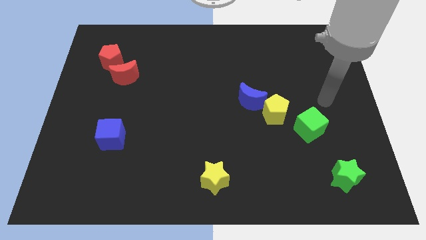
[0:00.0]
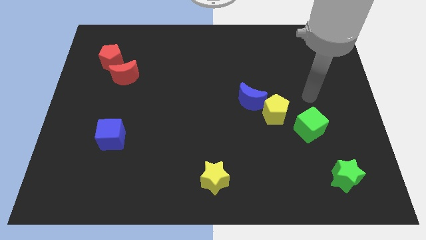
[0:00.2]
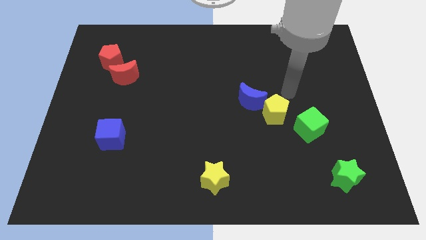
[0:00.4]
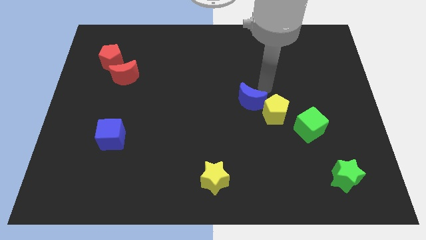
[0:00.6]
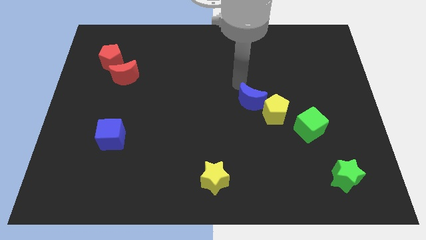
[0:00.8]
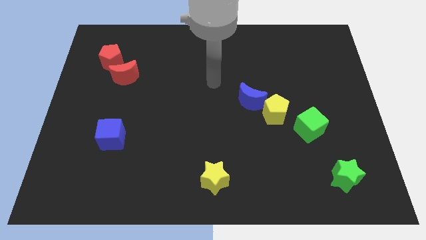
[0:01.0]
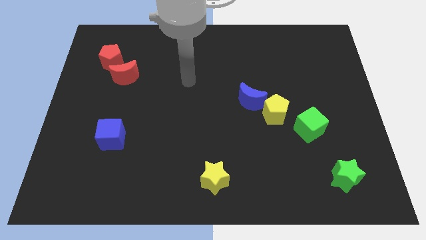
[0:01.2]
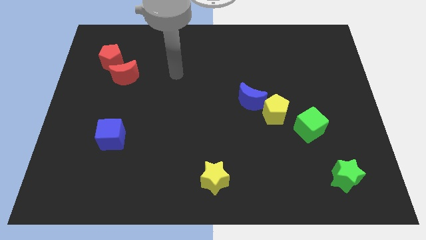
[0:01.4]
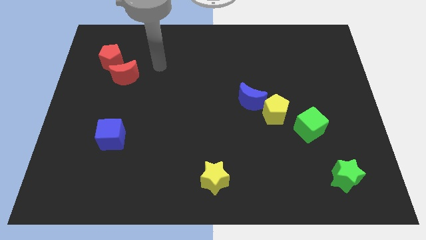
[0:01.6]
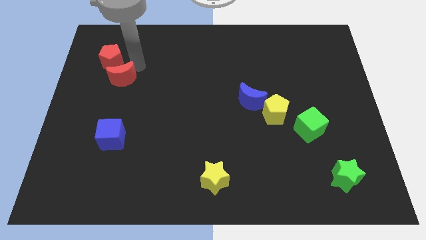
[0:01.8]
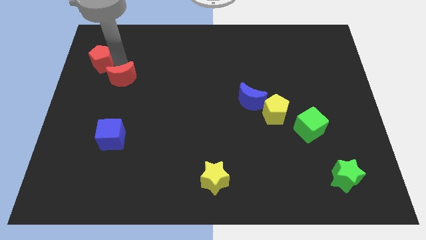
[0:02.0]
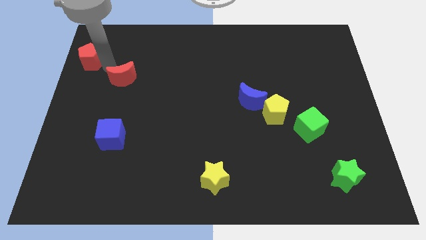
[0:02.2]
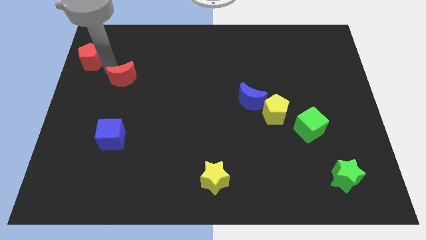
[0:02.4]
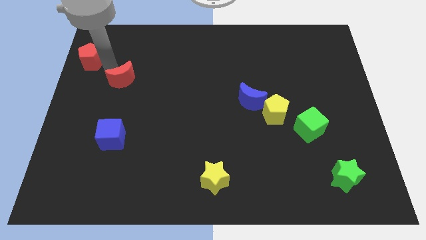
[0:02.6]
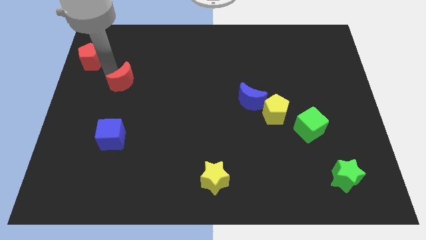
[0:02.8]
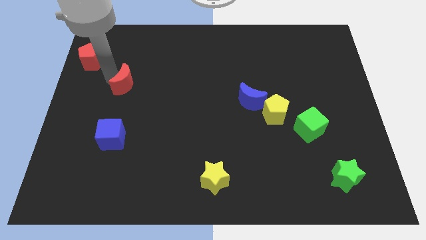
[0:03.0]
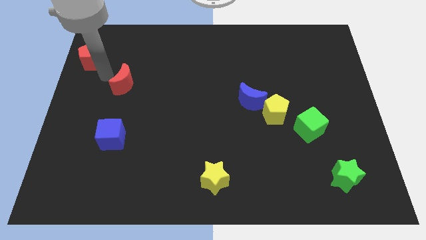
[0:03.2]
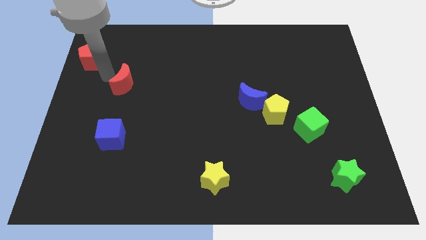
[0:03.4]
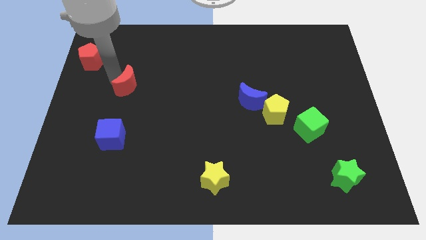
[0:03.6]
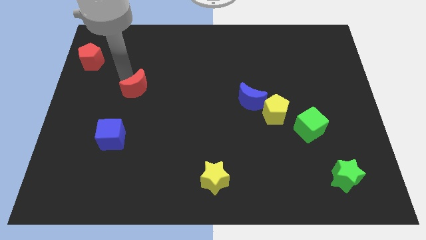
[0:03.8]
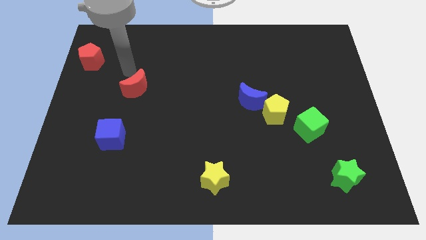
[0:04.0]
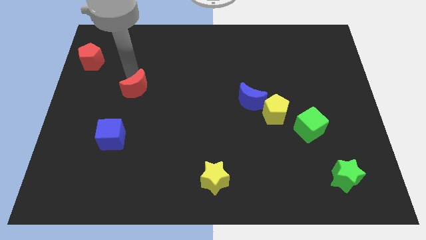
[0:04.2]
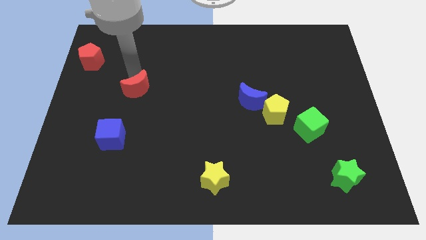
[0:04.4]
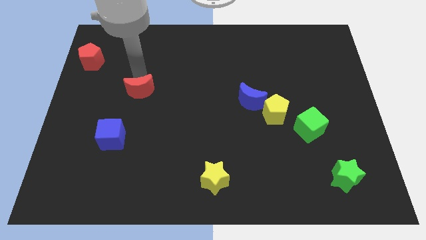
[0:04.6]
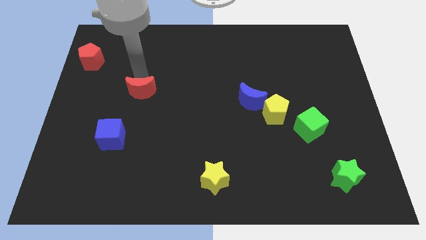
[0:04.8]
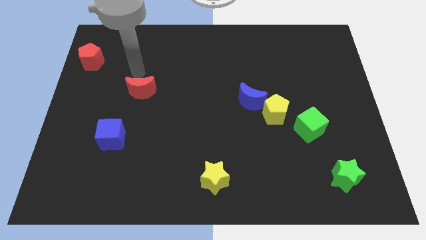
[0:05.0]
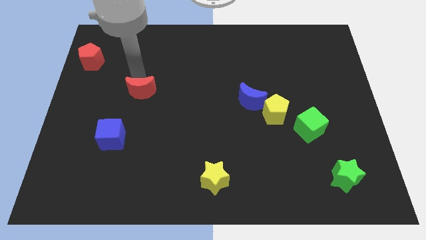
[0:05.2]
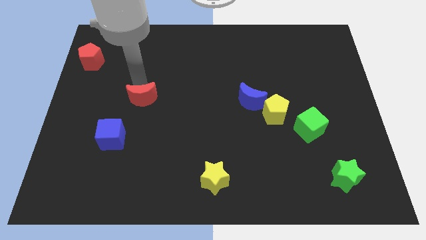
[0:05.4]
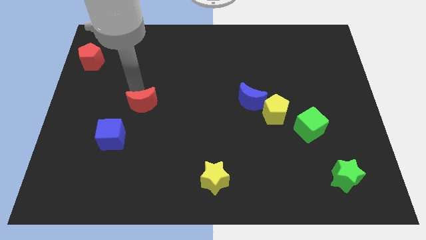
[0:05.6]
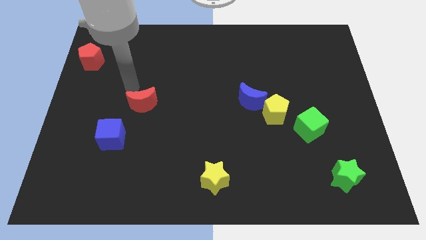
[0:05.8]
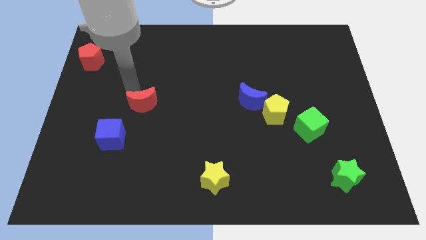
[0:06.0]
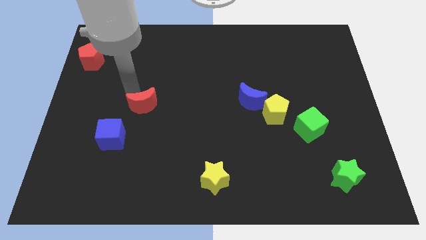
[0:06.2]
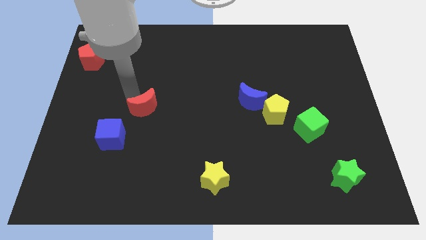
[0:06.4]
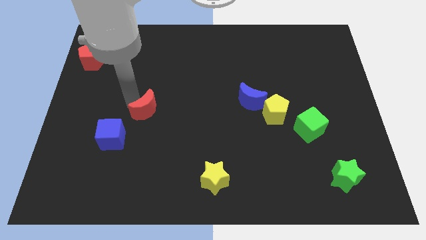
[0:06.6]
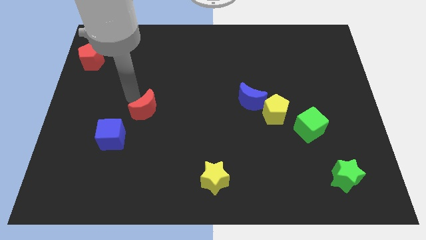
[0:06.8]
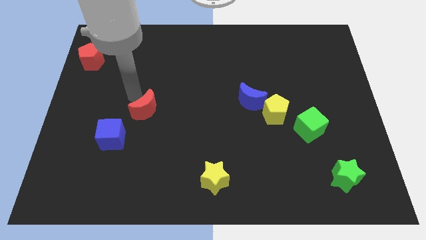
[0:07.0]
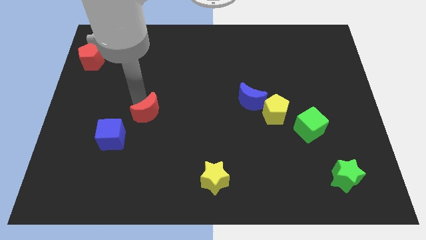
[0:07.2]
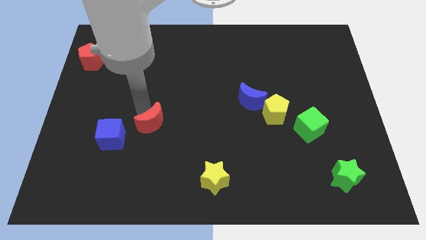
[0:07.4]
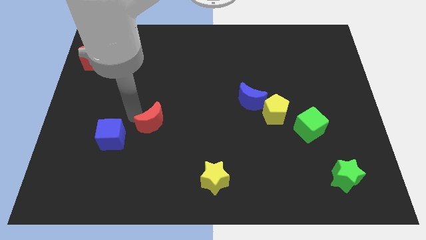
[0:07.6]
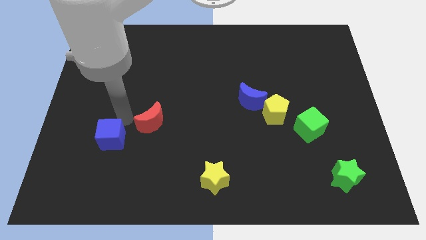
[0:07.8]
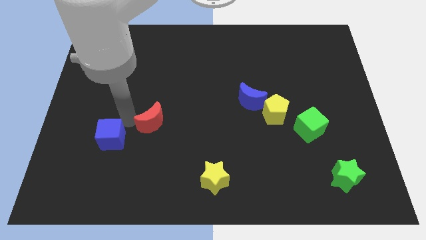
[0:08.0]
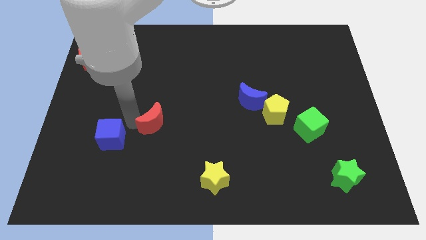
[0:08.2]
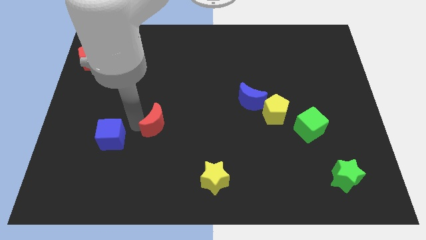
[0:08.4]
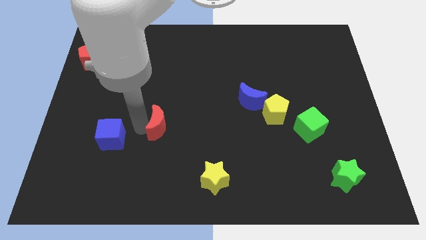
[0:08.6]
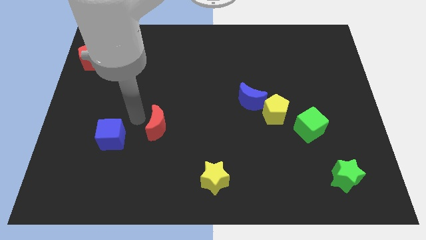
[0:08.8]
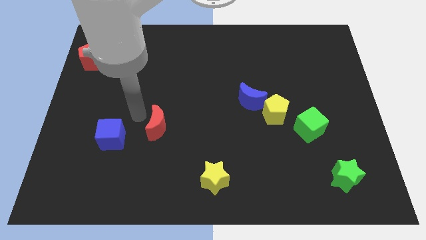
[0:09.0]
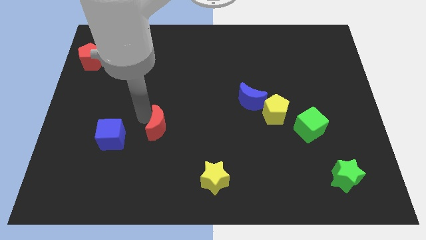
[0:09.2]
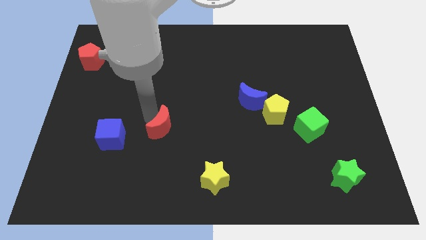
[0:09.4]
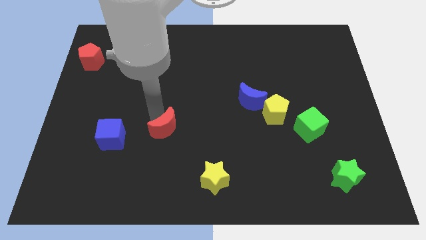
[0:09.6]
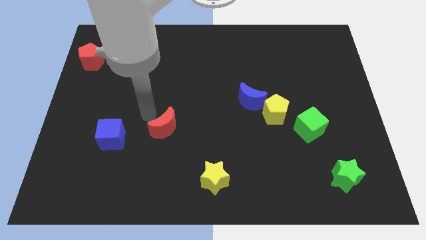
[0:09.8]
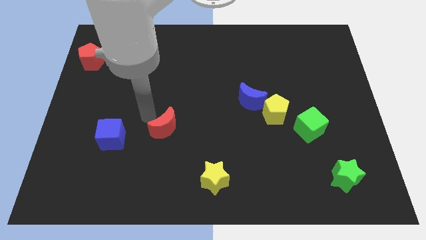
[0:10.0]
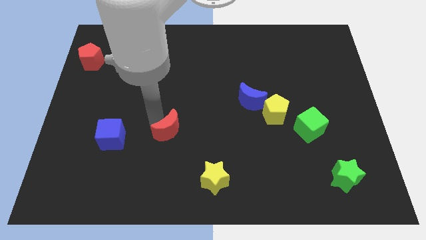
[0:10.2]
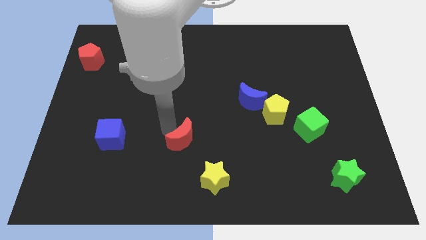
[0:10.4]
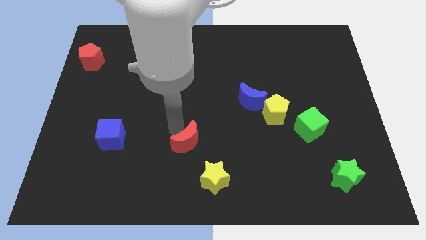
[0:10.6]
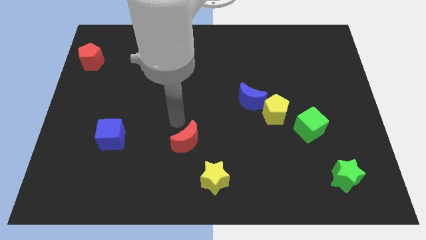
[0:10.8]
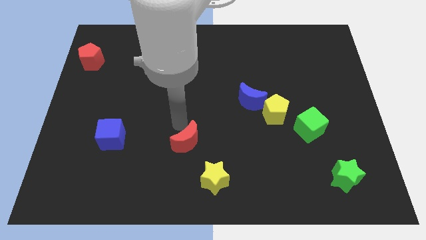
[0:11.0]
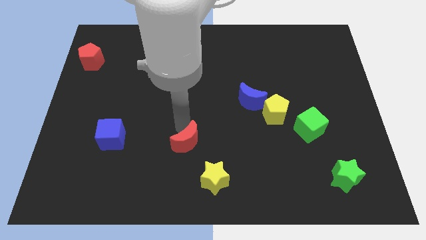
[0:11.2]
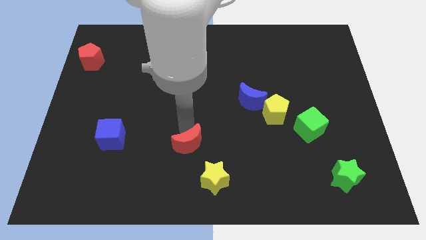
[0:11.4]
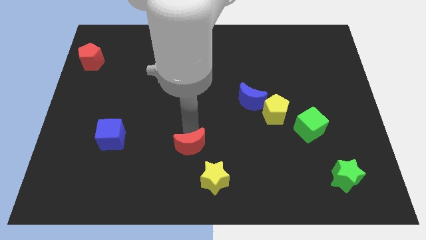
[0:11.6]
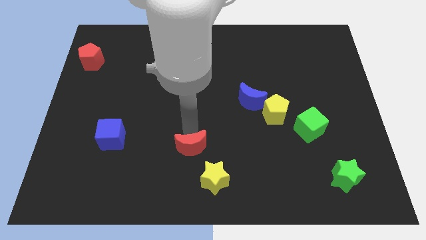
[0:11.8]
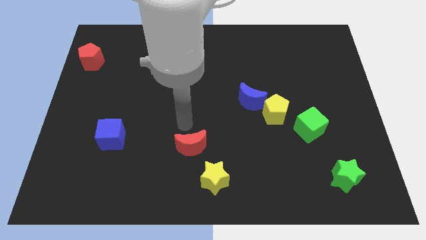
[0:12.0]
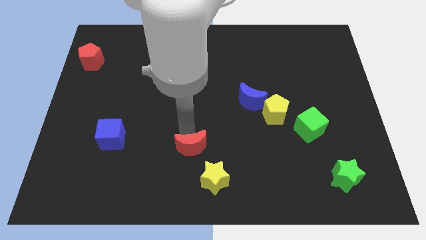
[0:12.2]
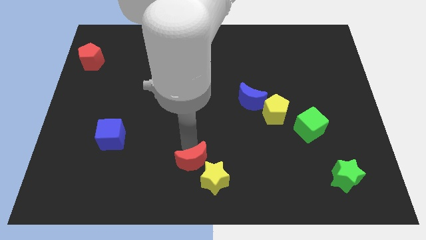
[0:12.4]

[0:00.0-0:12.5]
push the red moon close to the yellow star

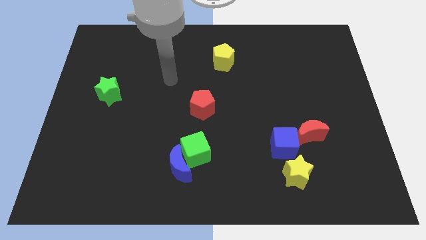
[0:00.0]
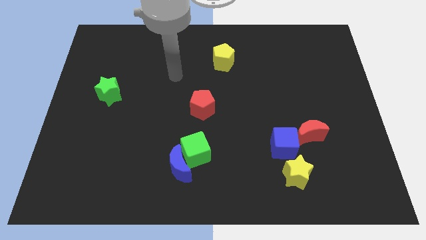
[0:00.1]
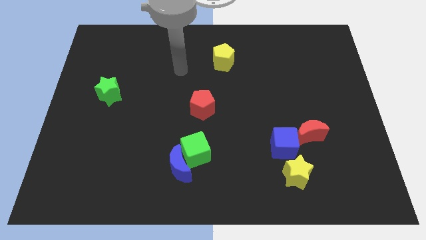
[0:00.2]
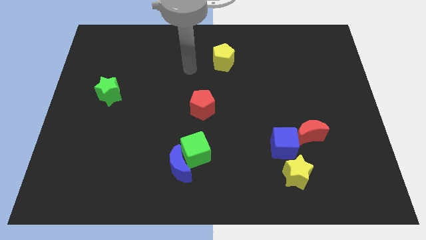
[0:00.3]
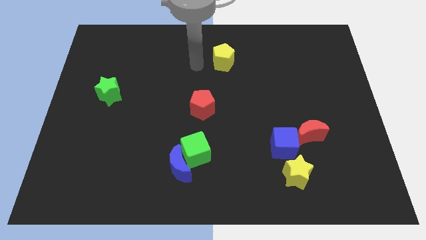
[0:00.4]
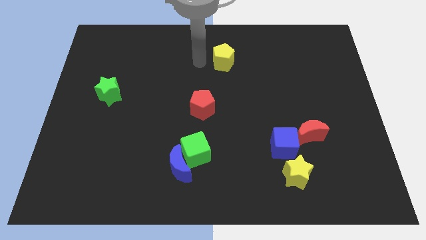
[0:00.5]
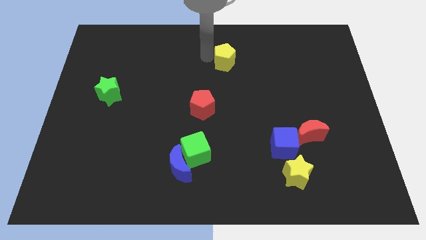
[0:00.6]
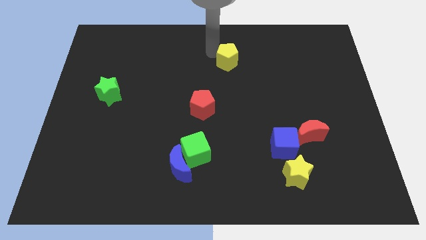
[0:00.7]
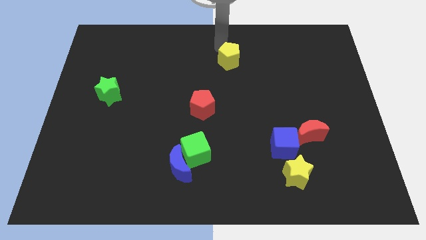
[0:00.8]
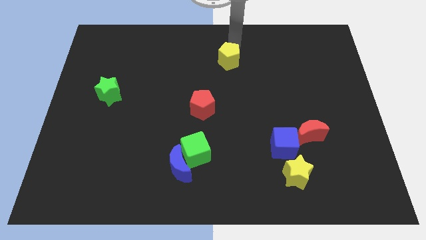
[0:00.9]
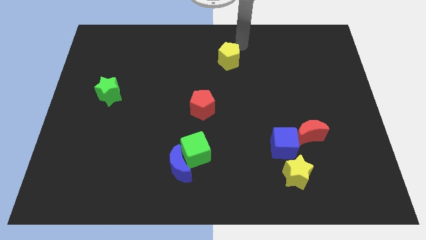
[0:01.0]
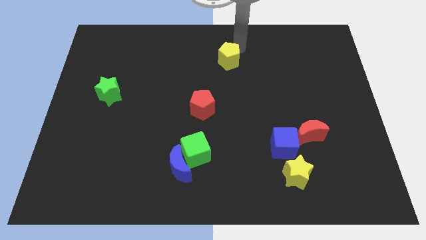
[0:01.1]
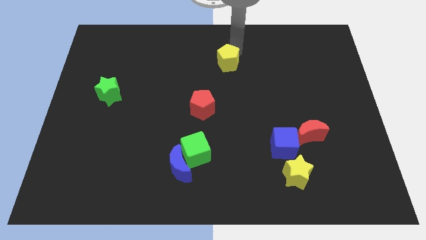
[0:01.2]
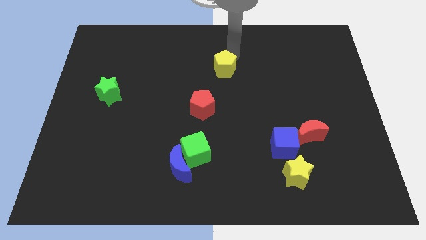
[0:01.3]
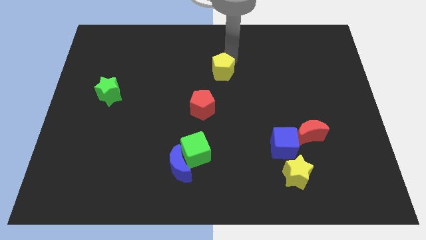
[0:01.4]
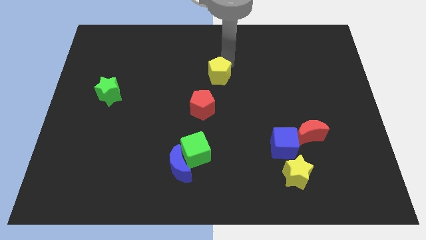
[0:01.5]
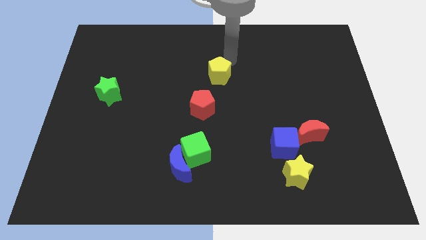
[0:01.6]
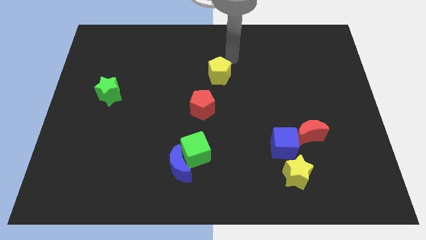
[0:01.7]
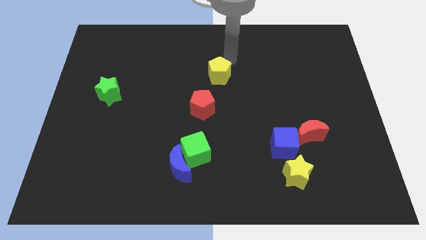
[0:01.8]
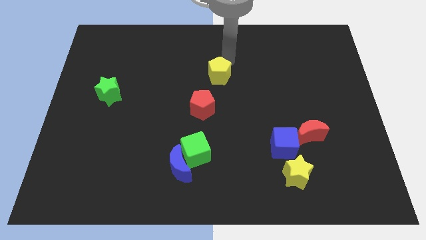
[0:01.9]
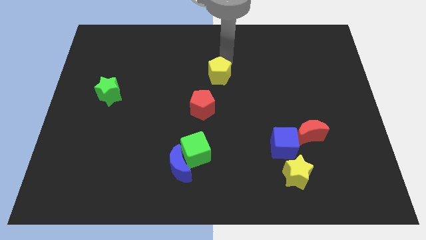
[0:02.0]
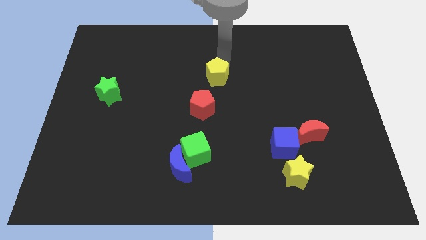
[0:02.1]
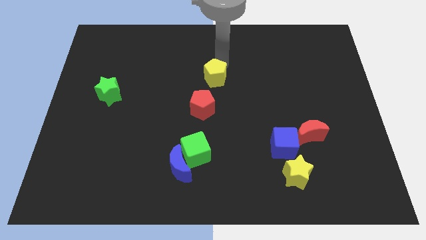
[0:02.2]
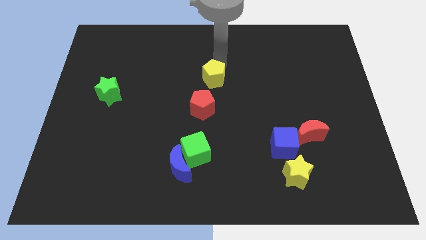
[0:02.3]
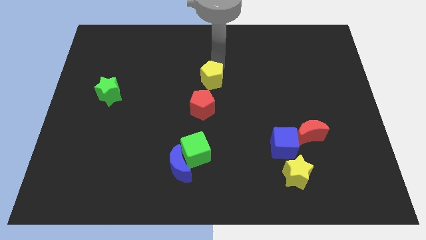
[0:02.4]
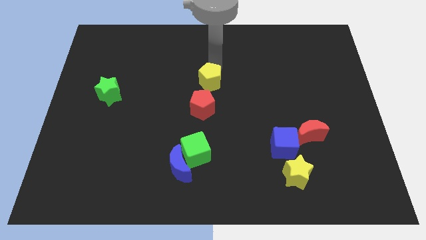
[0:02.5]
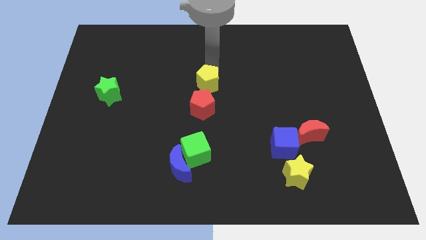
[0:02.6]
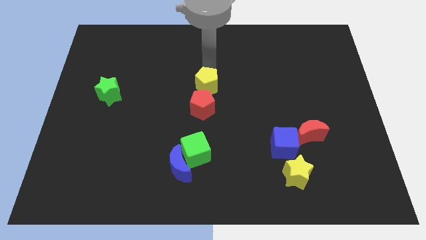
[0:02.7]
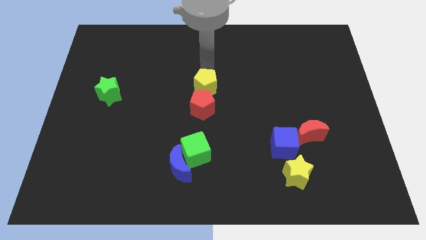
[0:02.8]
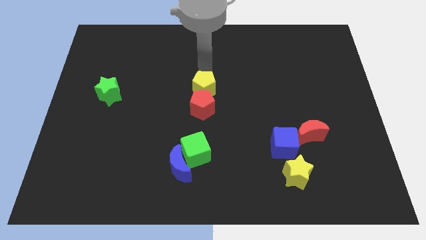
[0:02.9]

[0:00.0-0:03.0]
push the yellow pentagon close to the red pentagon
